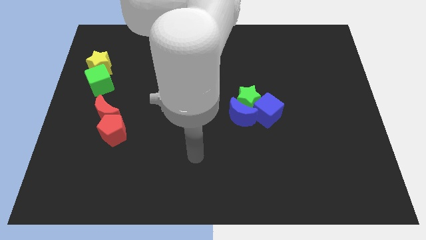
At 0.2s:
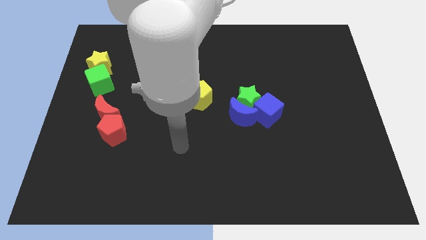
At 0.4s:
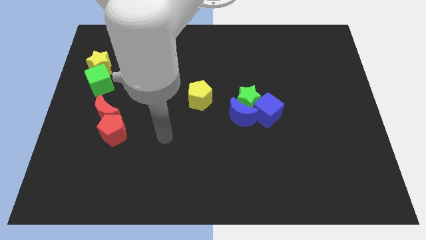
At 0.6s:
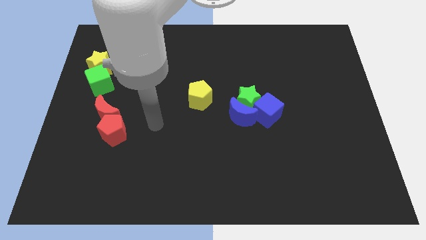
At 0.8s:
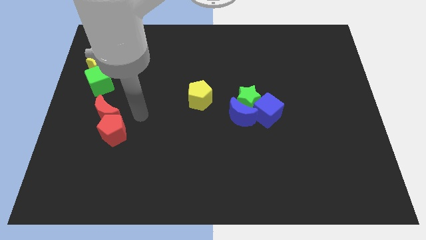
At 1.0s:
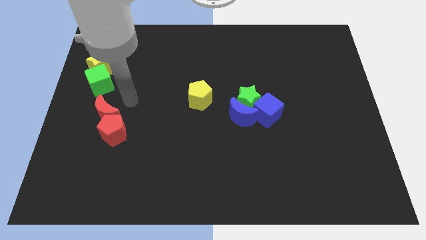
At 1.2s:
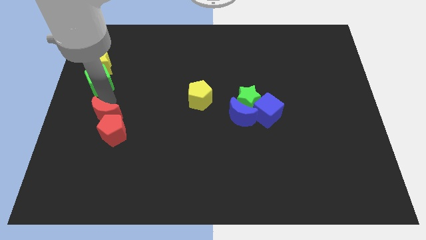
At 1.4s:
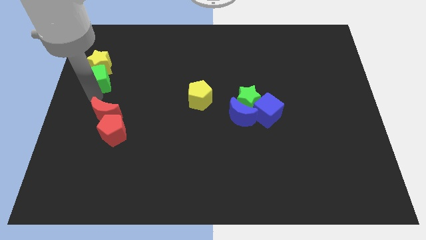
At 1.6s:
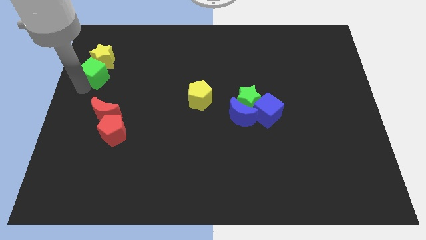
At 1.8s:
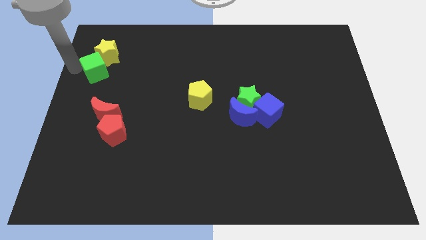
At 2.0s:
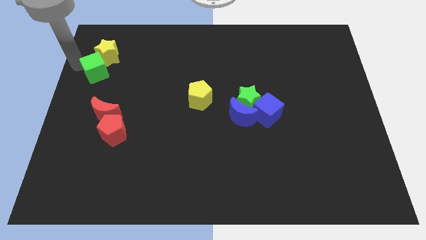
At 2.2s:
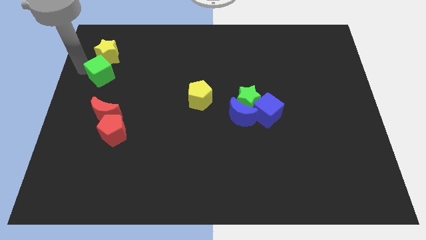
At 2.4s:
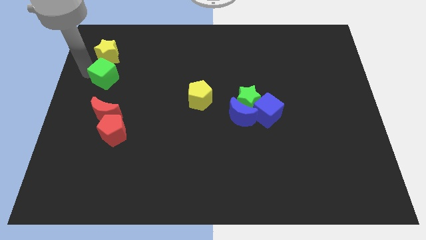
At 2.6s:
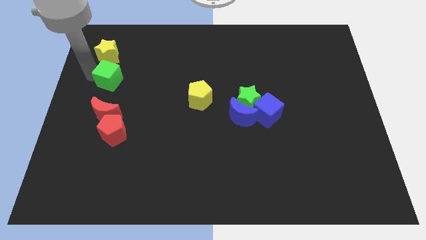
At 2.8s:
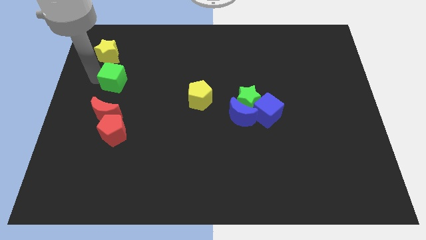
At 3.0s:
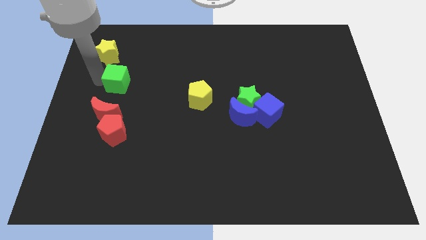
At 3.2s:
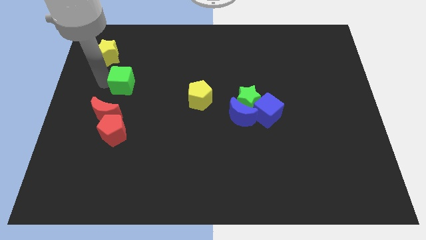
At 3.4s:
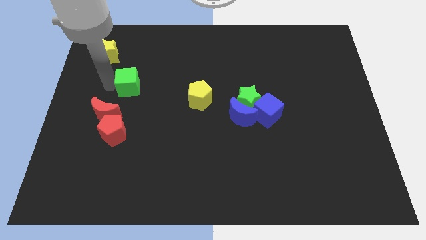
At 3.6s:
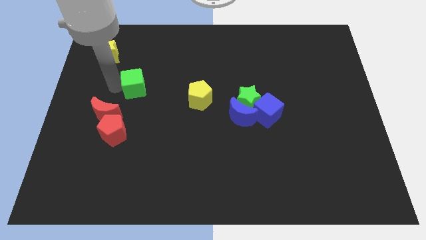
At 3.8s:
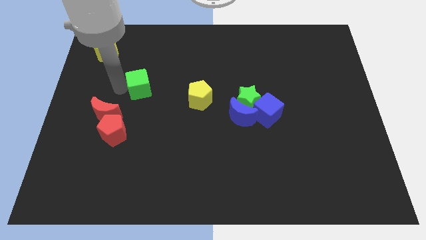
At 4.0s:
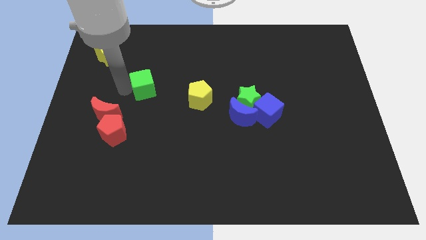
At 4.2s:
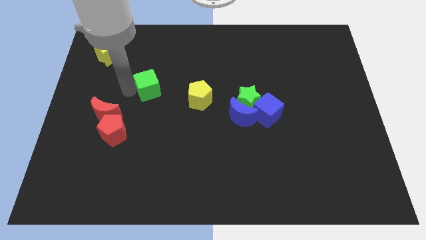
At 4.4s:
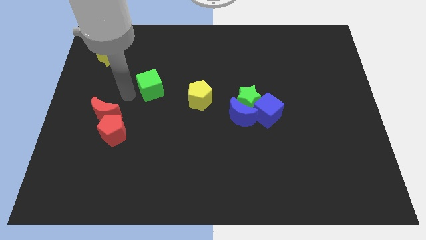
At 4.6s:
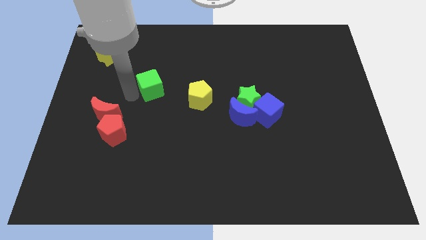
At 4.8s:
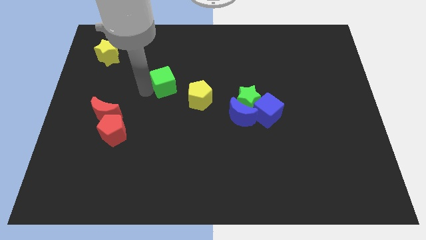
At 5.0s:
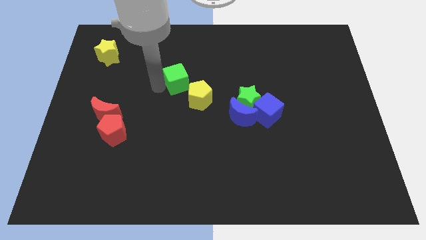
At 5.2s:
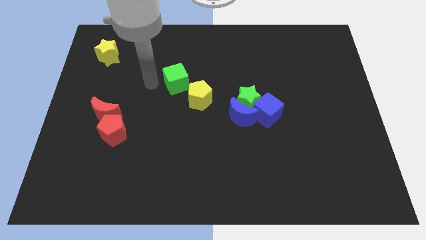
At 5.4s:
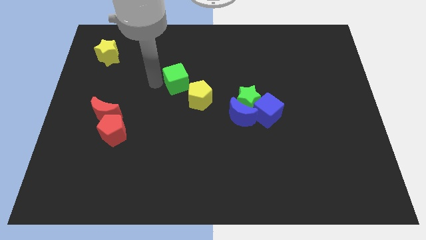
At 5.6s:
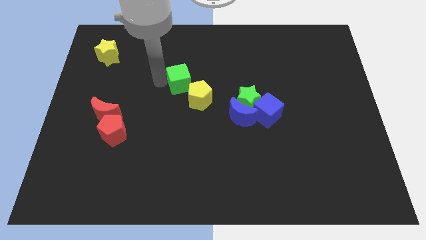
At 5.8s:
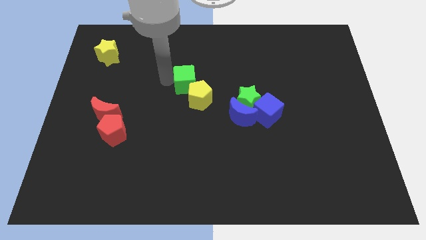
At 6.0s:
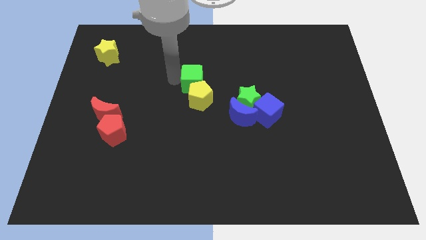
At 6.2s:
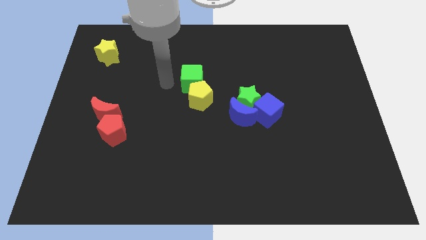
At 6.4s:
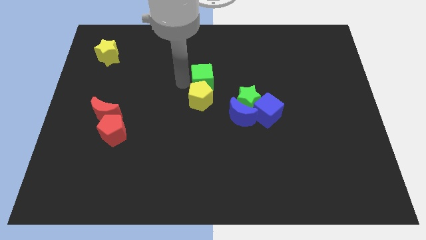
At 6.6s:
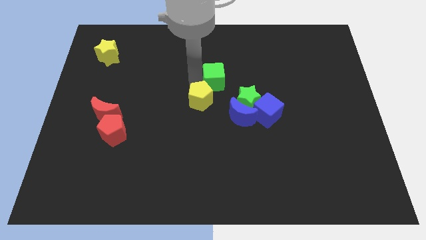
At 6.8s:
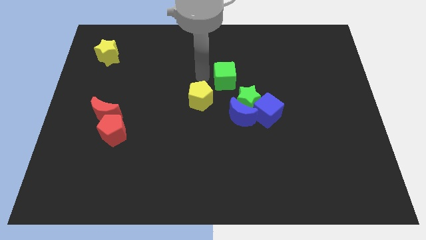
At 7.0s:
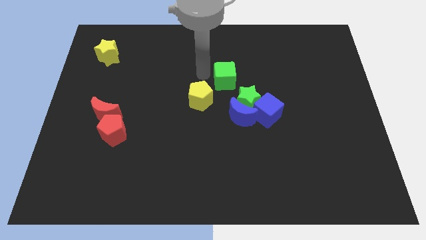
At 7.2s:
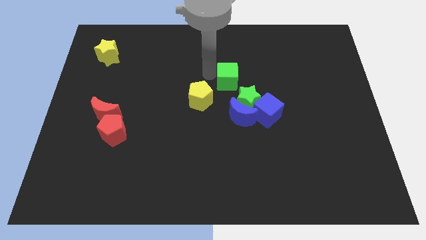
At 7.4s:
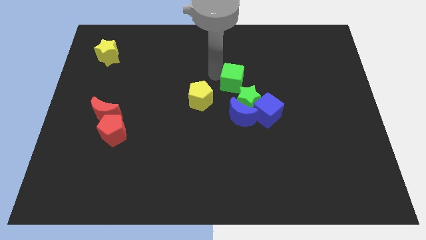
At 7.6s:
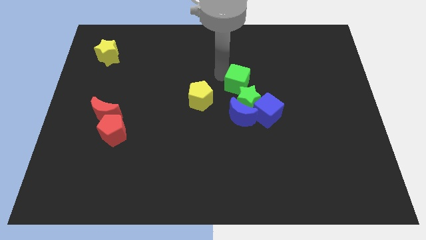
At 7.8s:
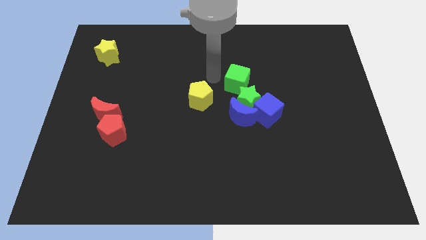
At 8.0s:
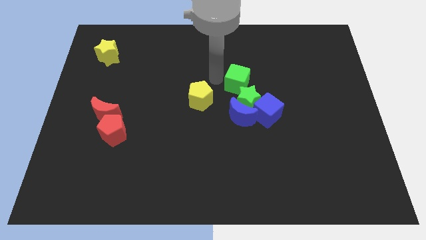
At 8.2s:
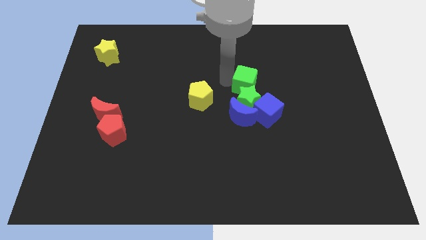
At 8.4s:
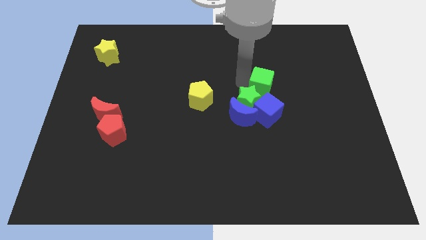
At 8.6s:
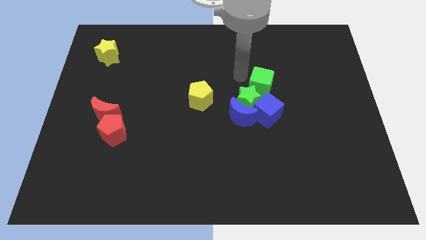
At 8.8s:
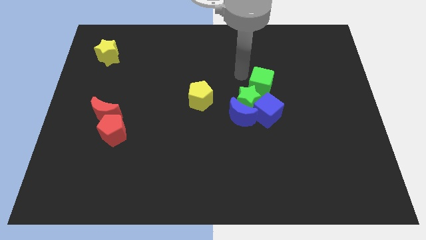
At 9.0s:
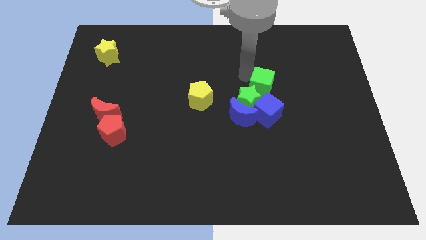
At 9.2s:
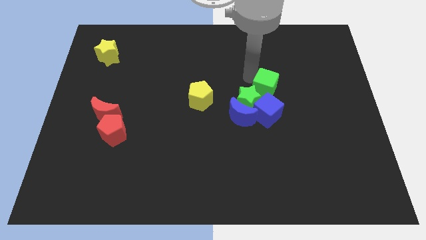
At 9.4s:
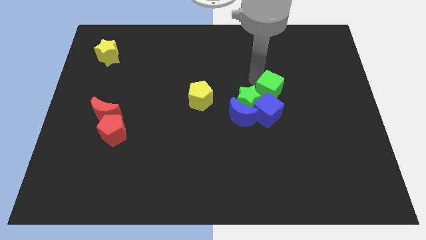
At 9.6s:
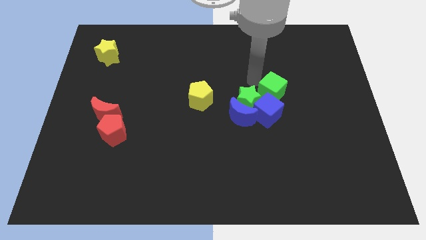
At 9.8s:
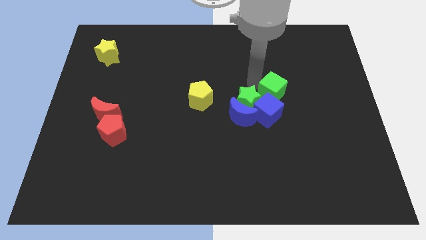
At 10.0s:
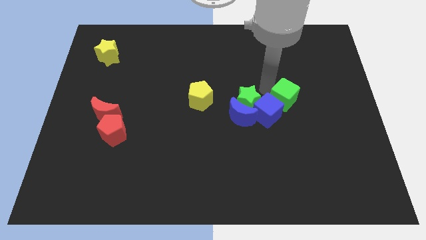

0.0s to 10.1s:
move the green cube just right of the blue cube

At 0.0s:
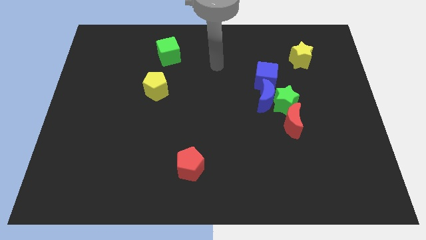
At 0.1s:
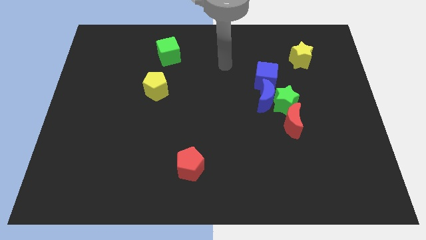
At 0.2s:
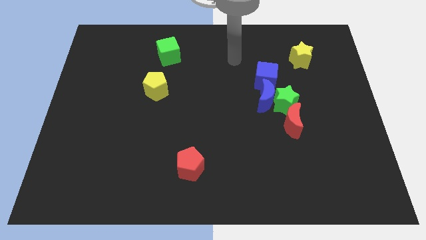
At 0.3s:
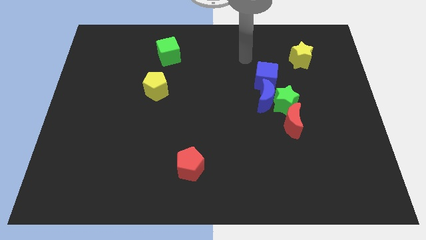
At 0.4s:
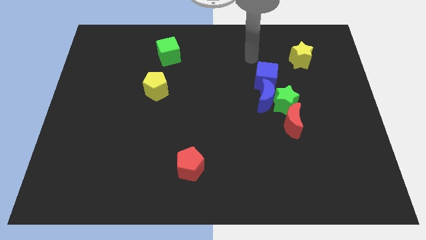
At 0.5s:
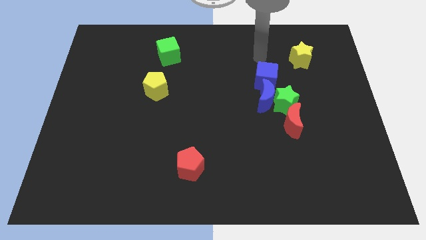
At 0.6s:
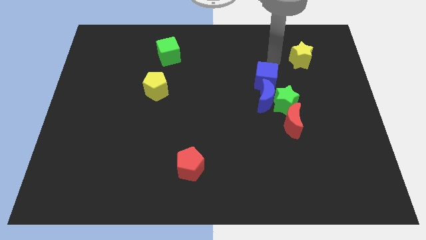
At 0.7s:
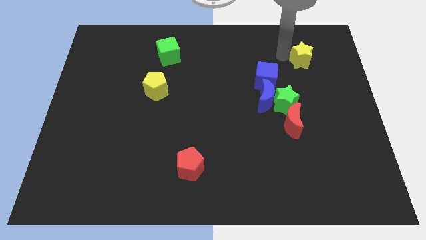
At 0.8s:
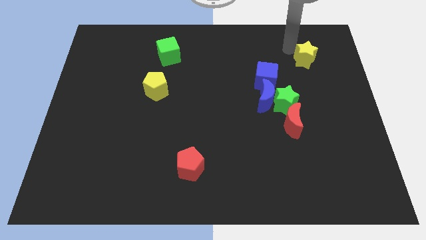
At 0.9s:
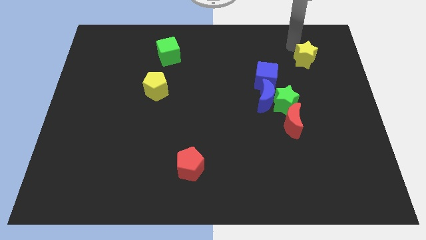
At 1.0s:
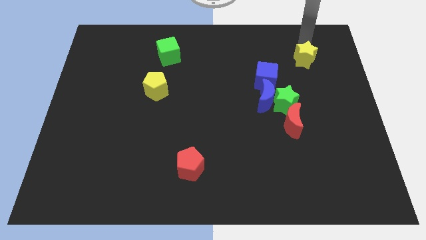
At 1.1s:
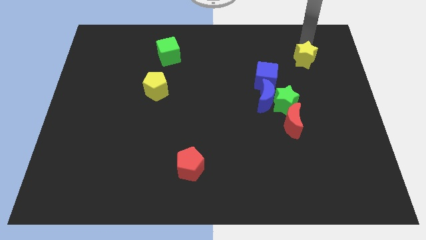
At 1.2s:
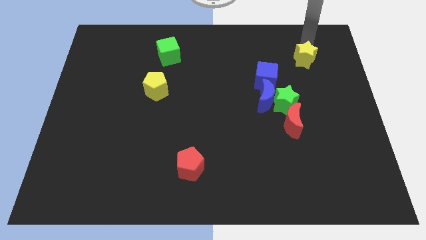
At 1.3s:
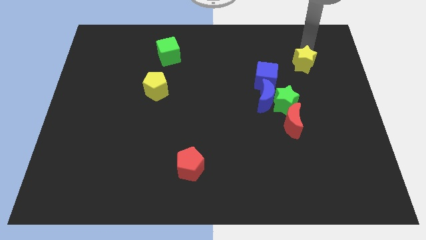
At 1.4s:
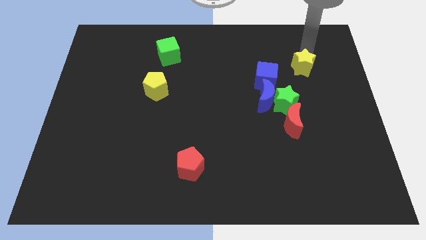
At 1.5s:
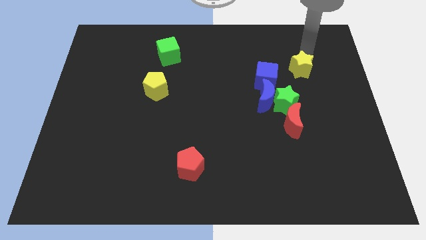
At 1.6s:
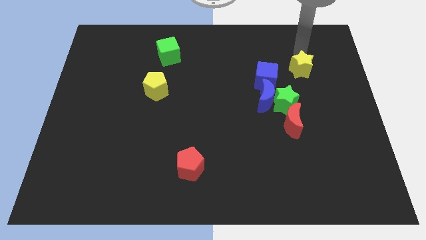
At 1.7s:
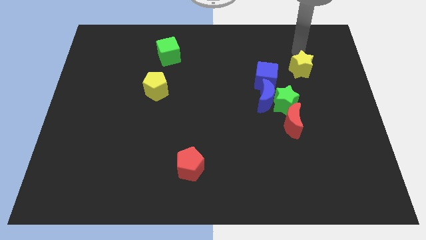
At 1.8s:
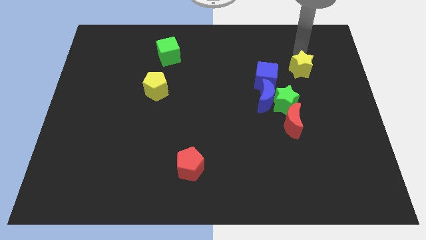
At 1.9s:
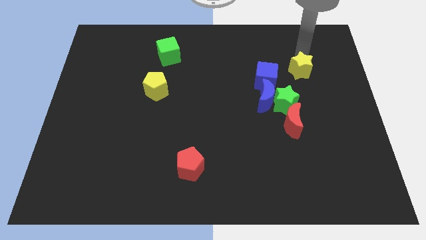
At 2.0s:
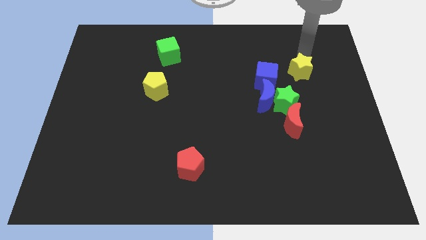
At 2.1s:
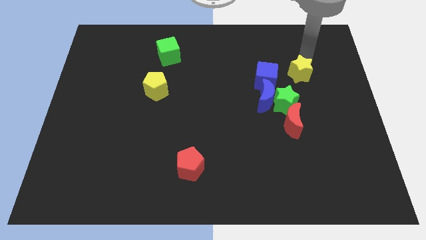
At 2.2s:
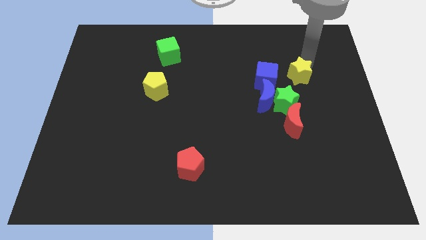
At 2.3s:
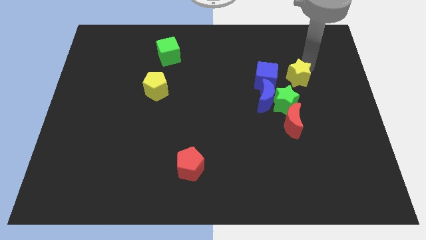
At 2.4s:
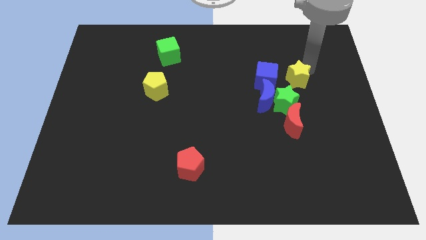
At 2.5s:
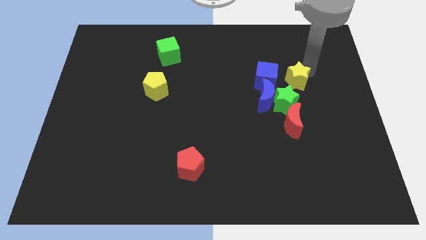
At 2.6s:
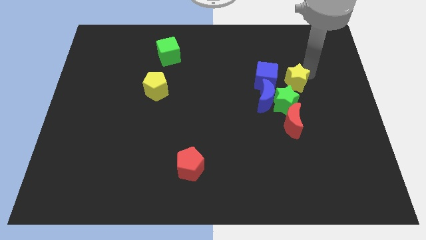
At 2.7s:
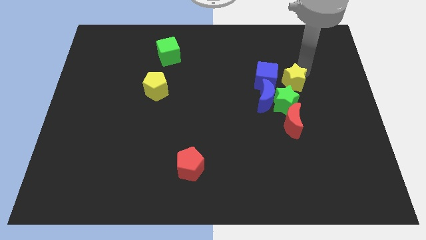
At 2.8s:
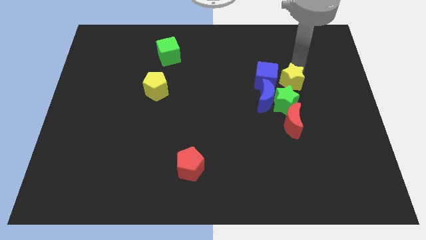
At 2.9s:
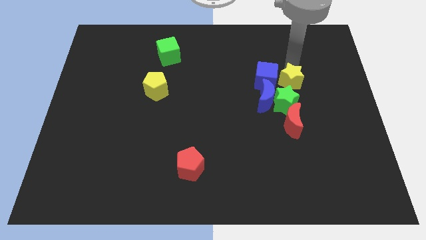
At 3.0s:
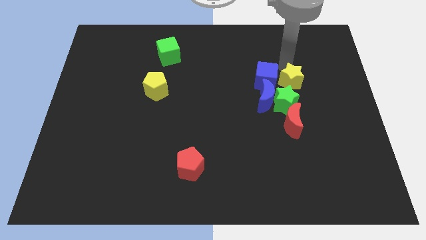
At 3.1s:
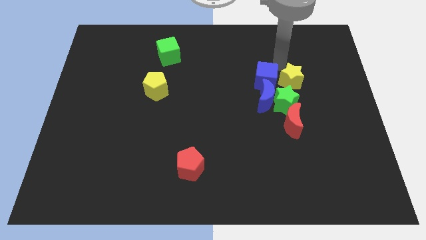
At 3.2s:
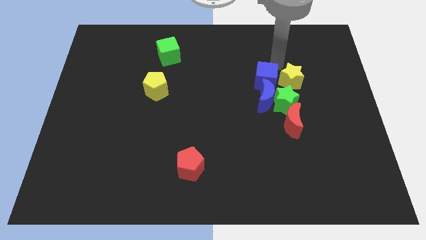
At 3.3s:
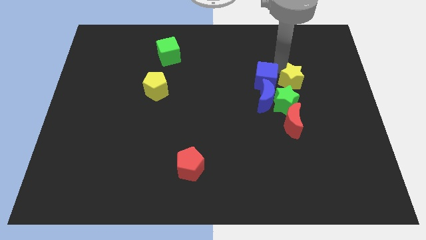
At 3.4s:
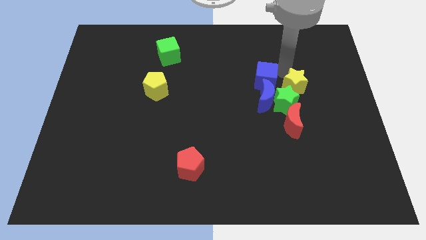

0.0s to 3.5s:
put the yellow star to the right side of the blue moon

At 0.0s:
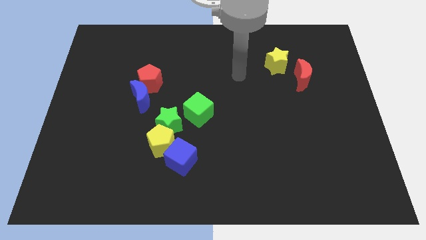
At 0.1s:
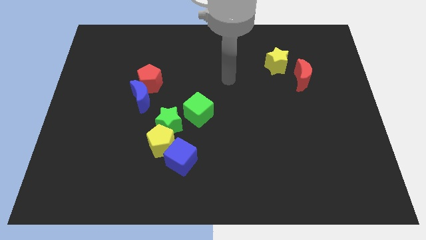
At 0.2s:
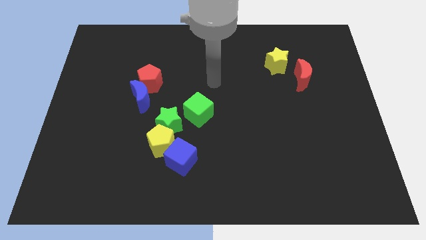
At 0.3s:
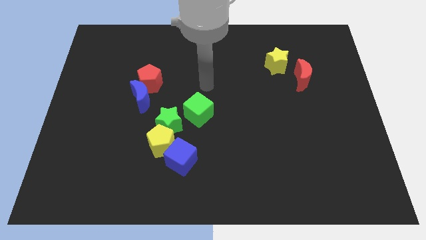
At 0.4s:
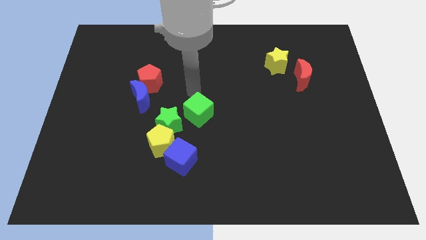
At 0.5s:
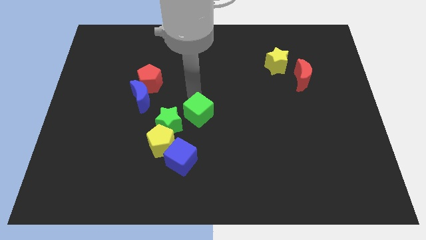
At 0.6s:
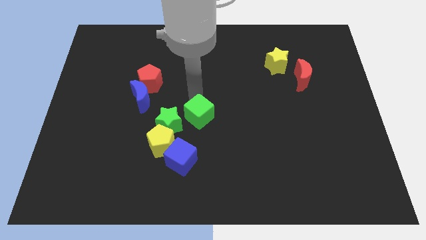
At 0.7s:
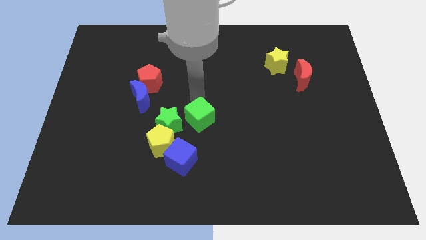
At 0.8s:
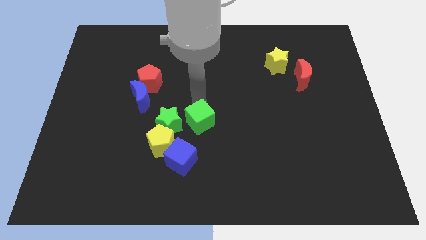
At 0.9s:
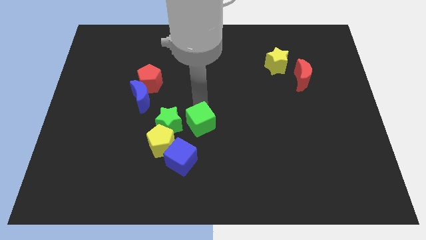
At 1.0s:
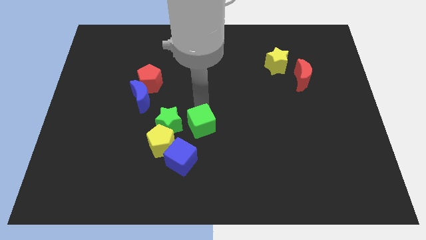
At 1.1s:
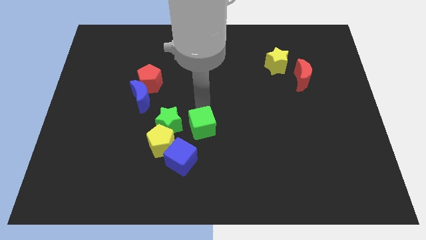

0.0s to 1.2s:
move the green cube to the right side of the yellow pentagon
